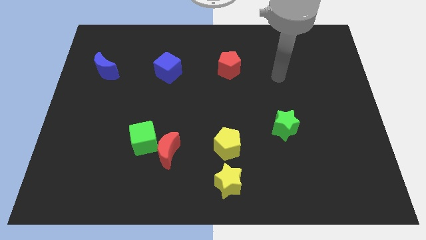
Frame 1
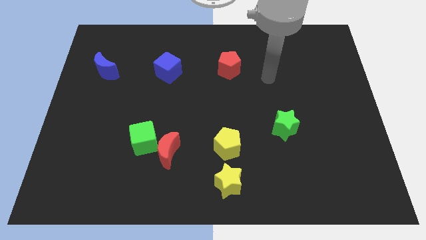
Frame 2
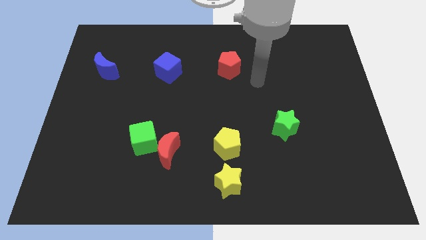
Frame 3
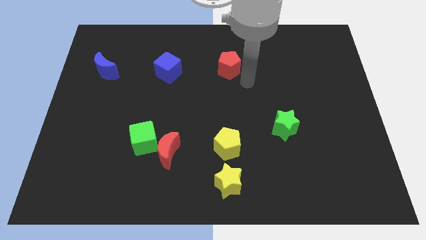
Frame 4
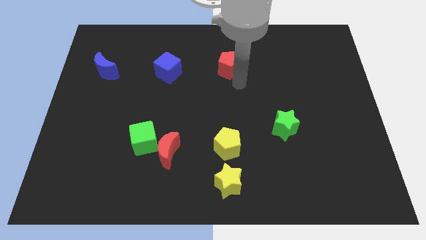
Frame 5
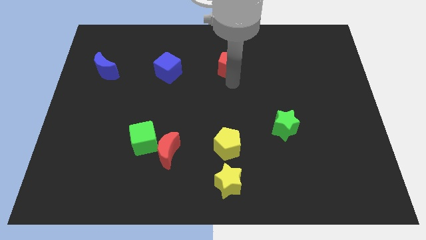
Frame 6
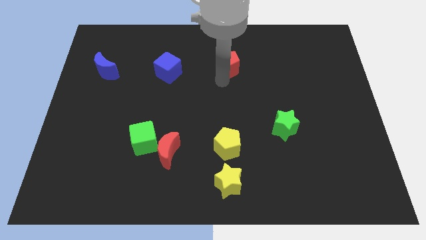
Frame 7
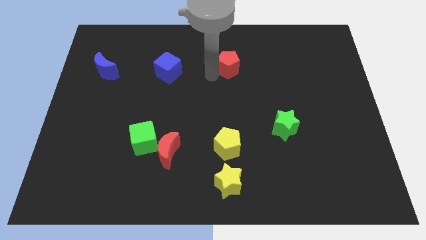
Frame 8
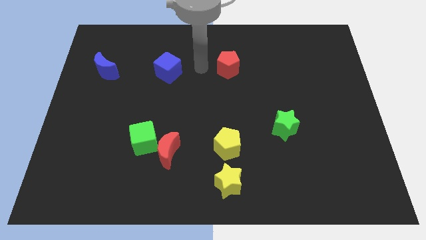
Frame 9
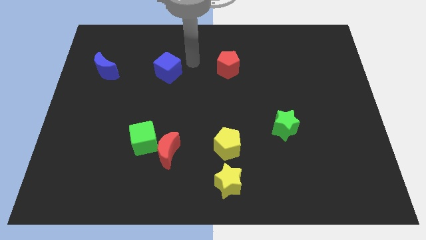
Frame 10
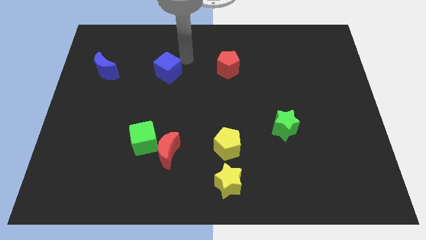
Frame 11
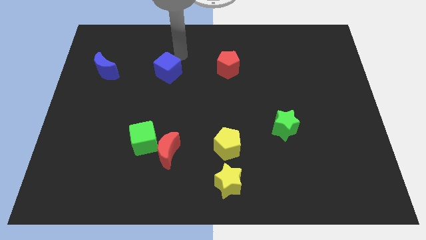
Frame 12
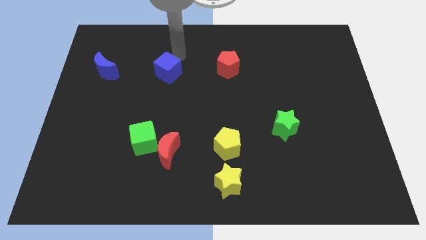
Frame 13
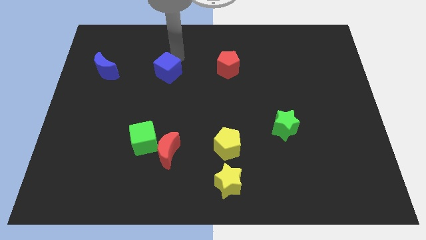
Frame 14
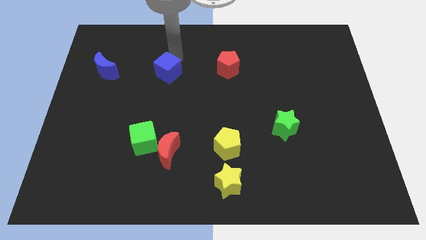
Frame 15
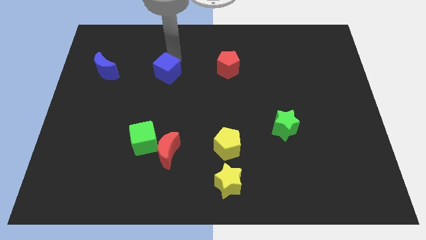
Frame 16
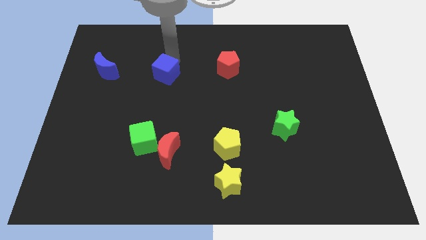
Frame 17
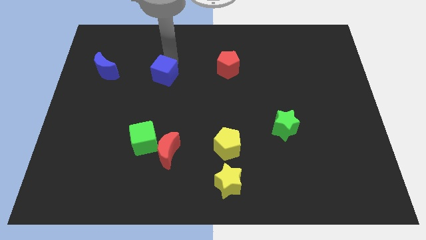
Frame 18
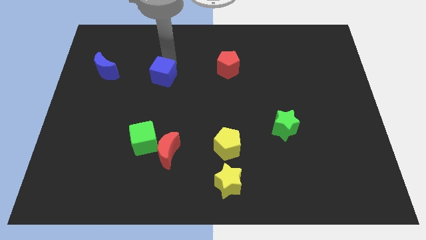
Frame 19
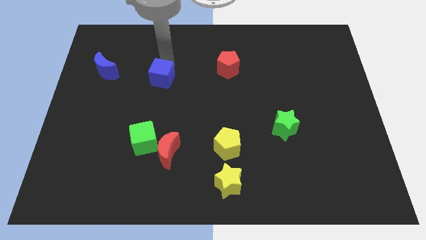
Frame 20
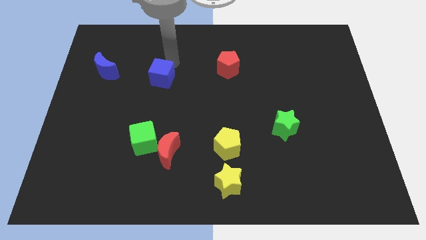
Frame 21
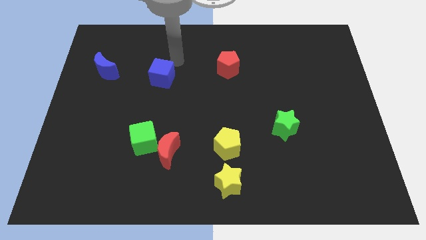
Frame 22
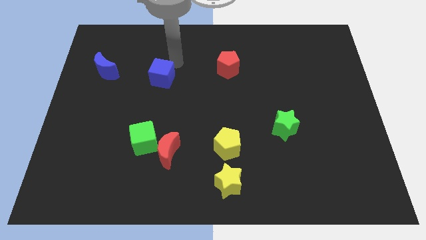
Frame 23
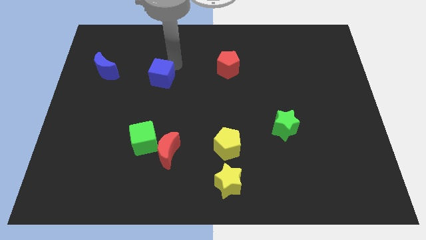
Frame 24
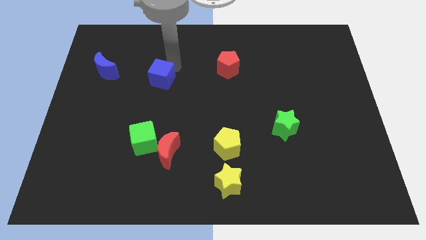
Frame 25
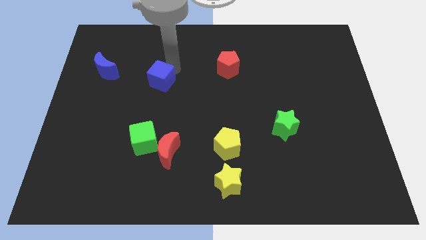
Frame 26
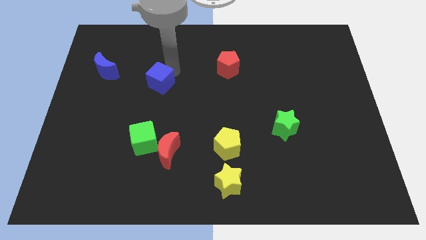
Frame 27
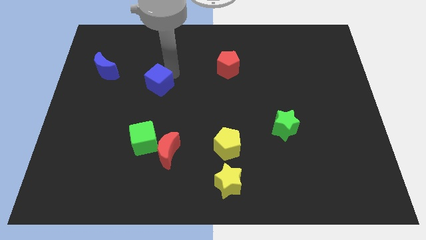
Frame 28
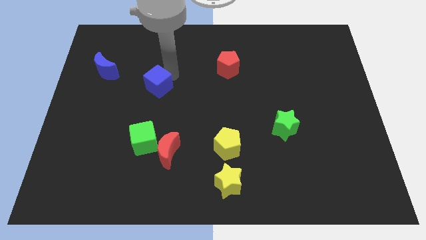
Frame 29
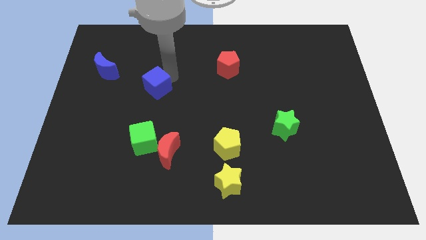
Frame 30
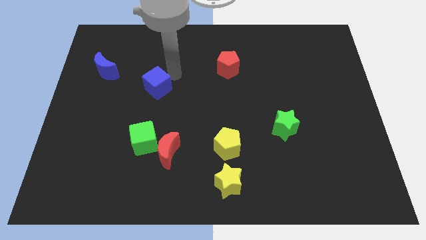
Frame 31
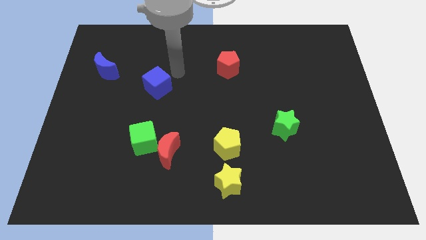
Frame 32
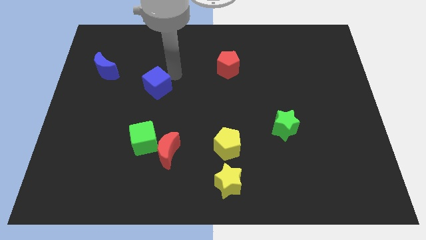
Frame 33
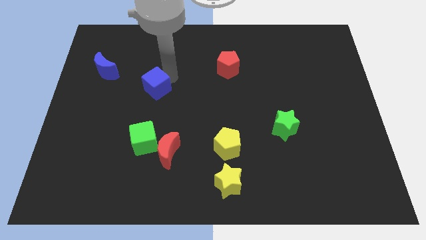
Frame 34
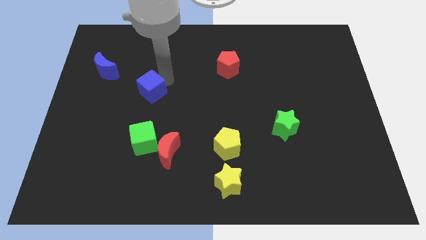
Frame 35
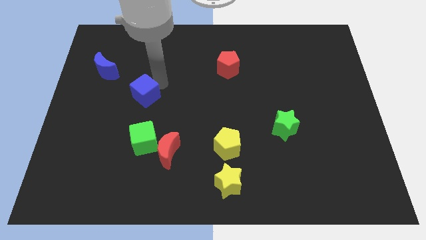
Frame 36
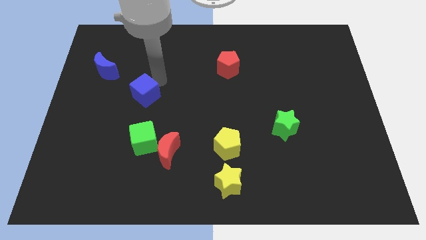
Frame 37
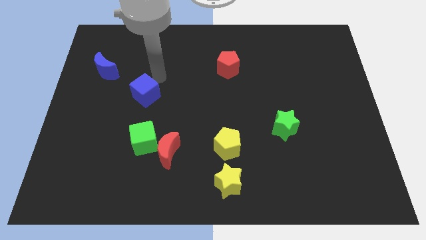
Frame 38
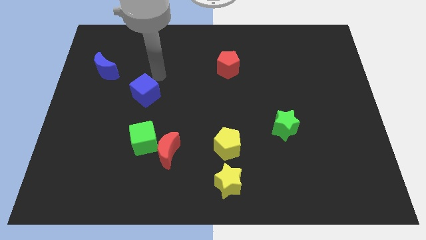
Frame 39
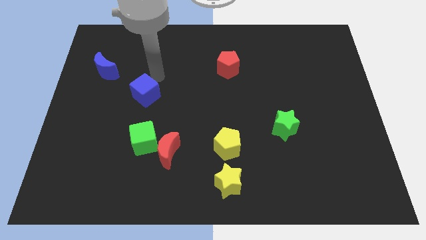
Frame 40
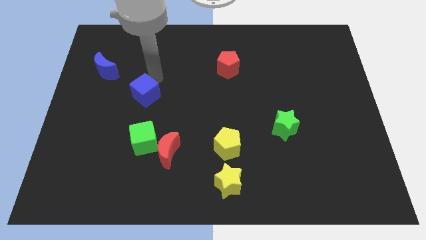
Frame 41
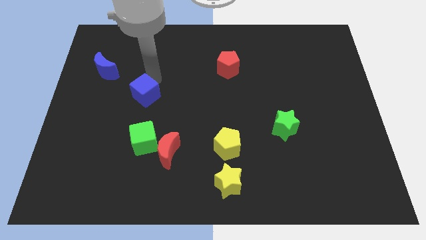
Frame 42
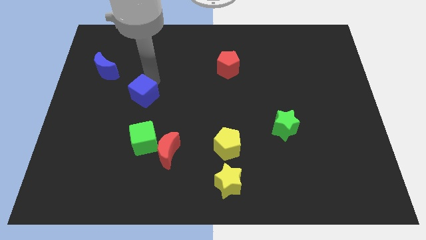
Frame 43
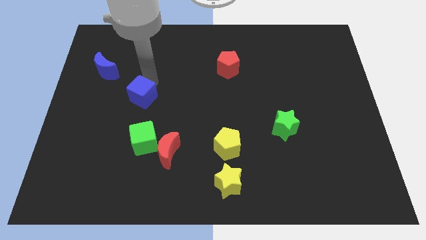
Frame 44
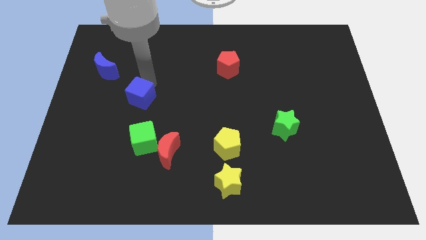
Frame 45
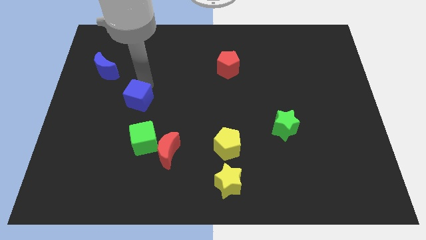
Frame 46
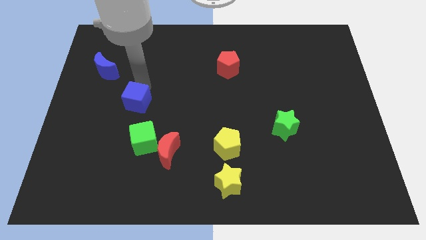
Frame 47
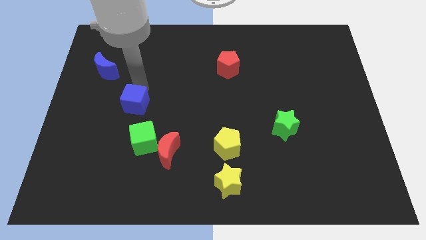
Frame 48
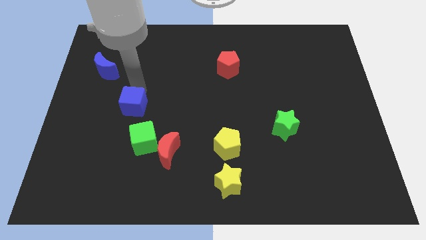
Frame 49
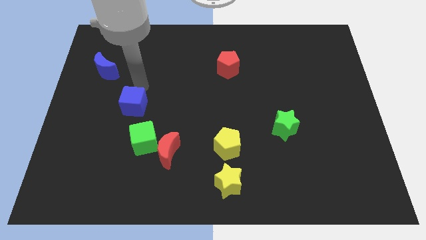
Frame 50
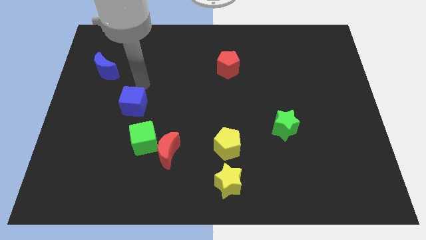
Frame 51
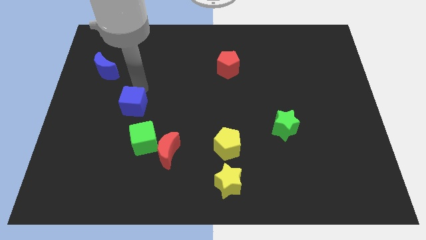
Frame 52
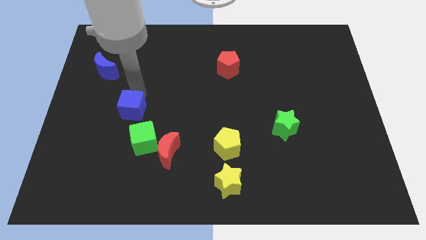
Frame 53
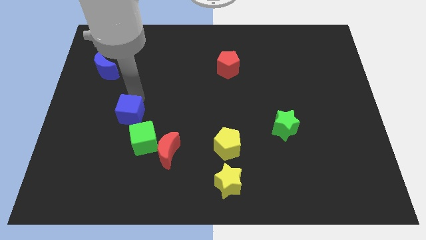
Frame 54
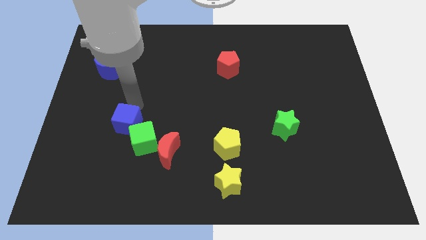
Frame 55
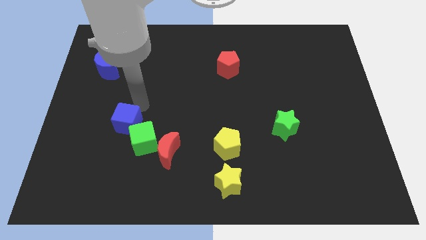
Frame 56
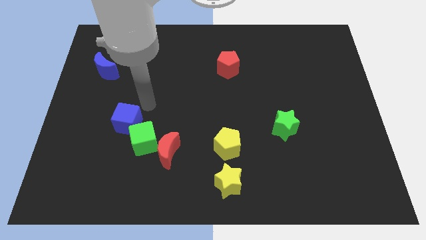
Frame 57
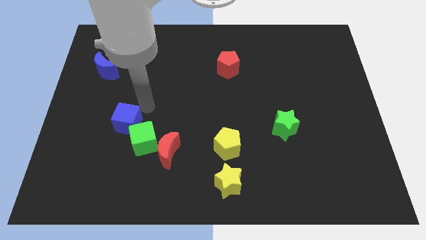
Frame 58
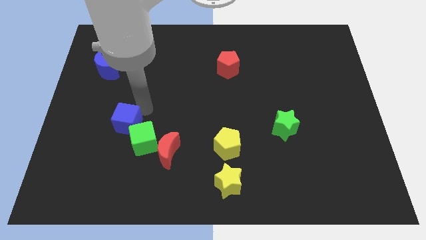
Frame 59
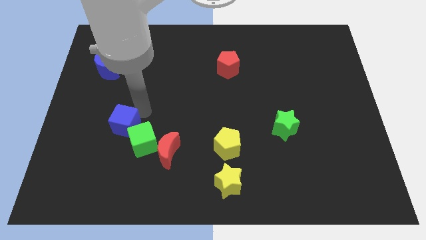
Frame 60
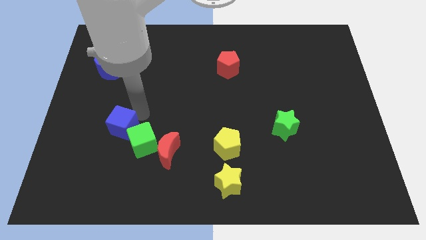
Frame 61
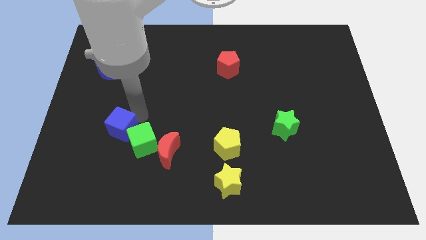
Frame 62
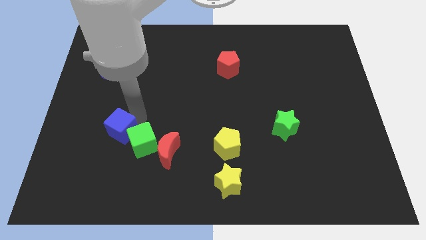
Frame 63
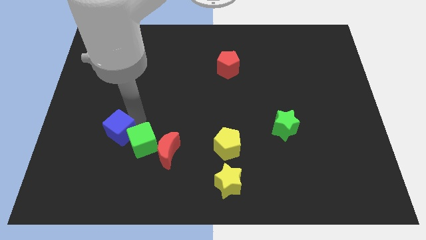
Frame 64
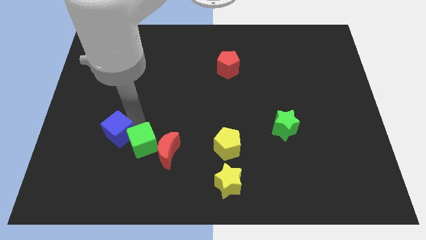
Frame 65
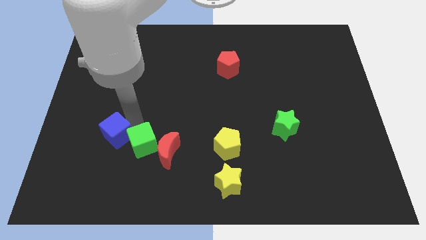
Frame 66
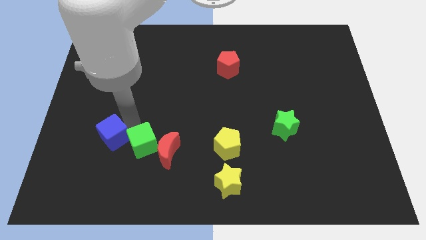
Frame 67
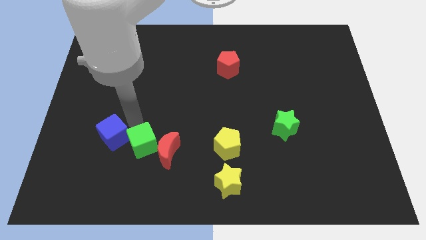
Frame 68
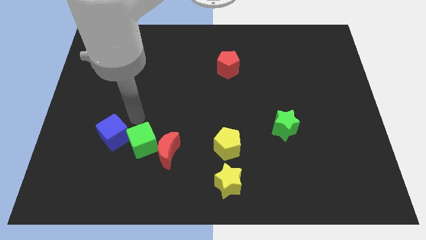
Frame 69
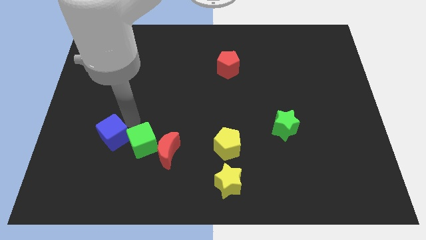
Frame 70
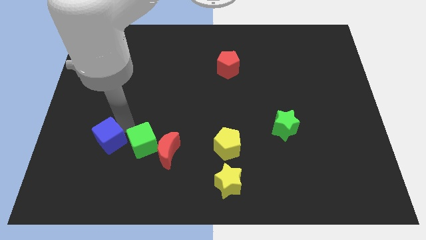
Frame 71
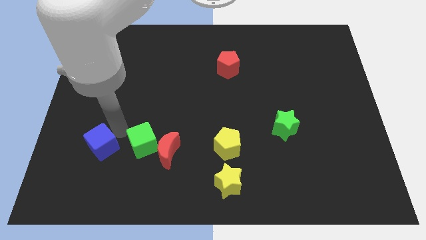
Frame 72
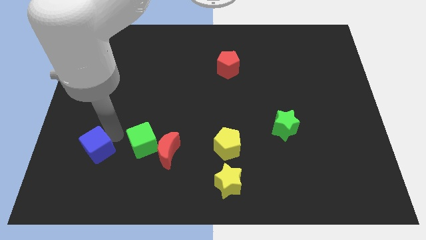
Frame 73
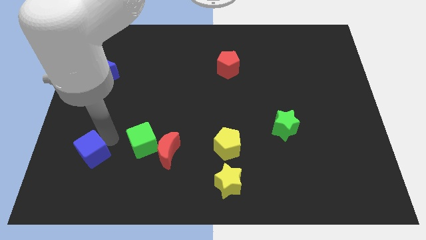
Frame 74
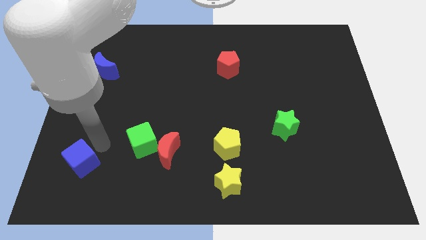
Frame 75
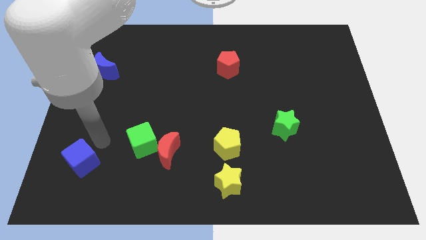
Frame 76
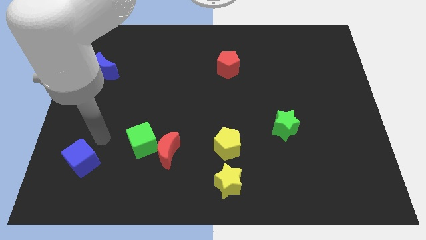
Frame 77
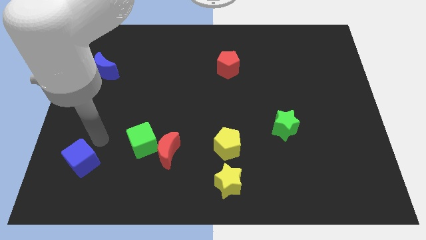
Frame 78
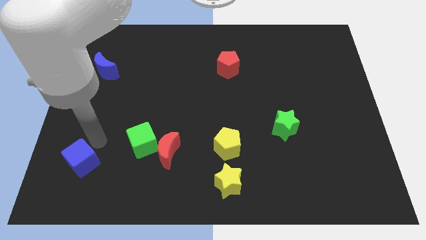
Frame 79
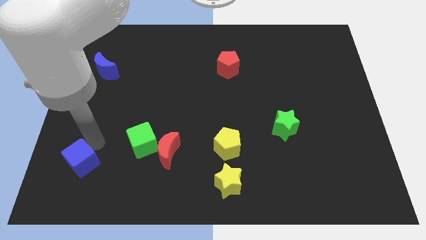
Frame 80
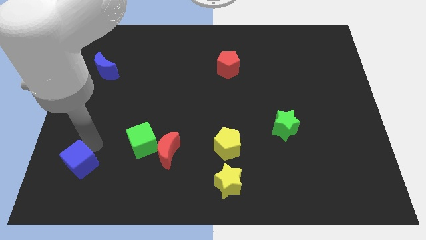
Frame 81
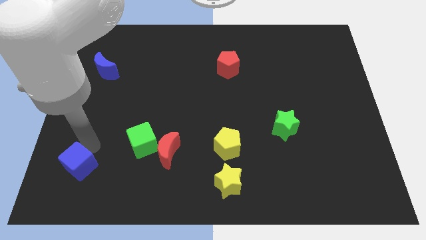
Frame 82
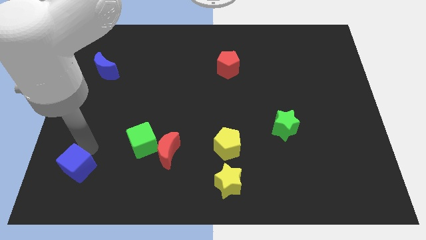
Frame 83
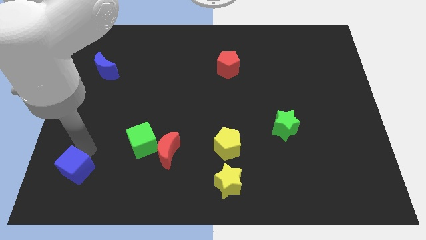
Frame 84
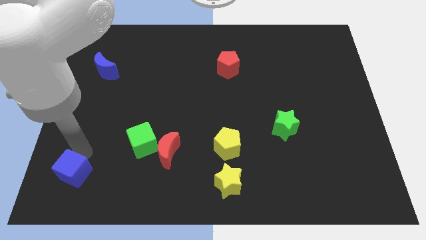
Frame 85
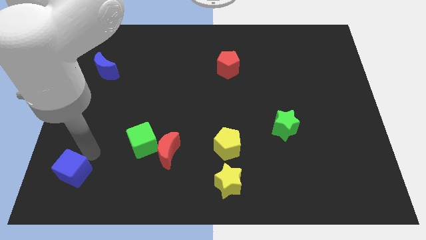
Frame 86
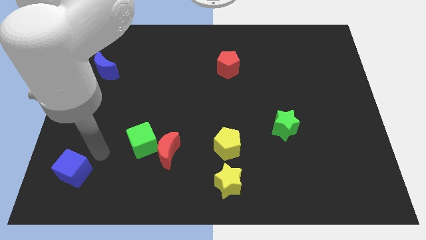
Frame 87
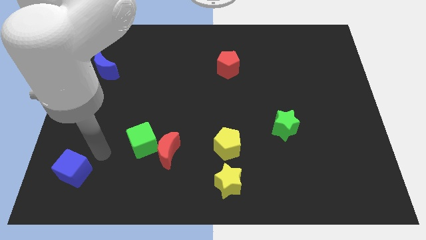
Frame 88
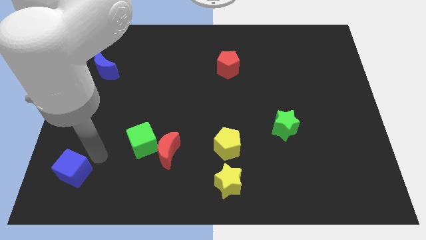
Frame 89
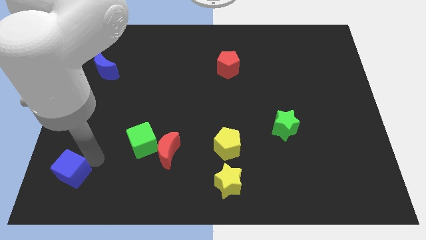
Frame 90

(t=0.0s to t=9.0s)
push the blue cube to the bottom left of the board
